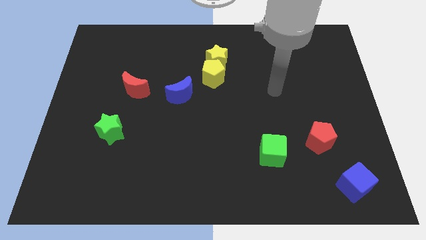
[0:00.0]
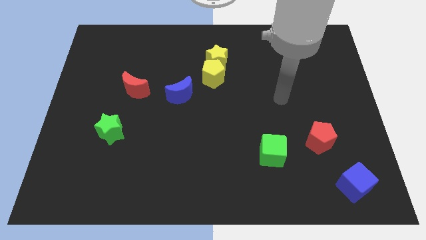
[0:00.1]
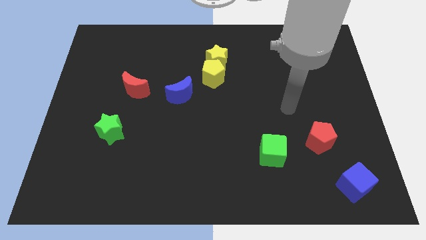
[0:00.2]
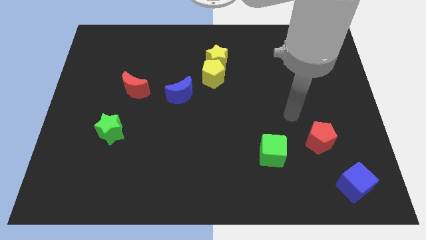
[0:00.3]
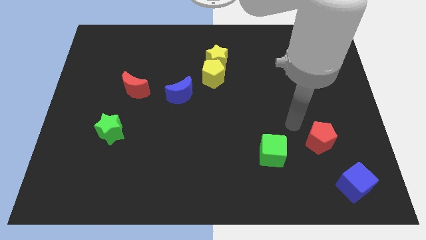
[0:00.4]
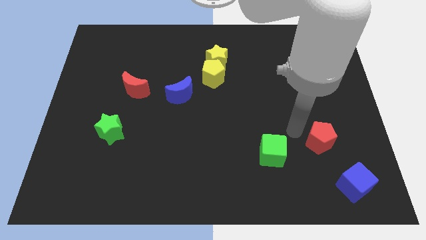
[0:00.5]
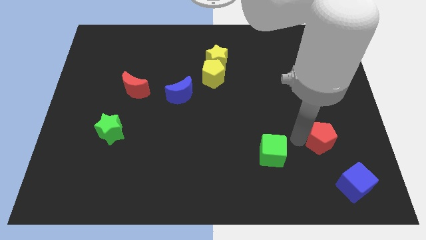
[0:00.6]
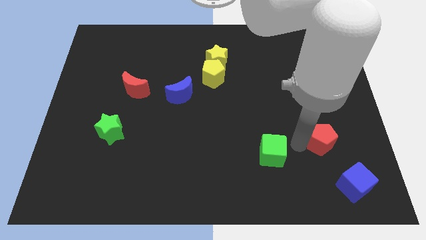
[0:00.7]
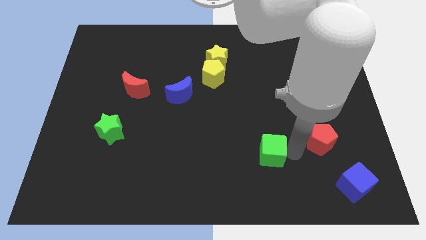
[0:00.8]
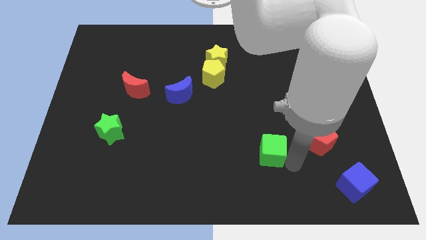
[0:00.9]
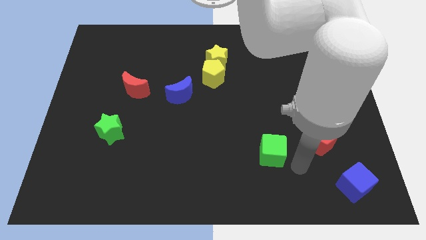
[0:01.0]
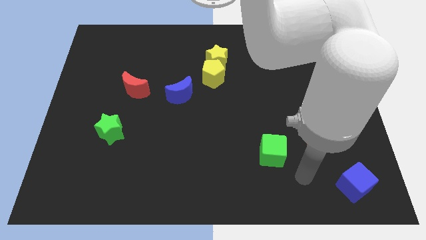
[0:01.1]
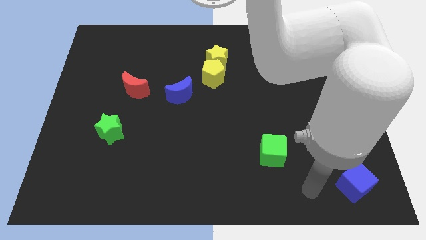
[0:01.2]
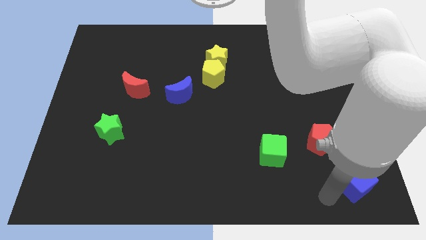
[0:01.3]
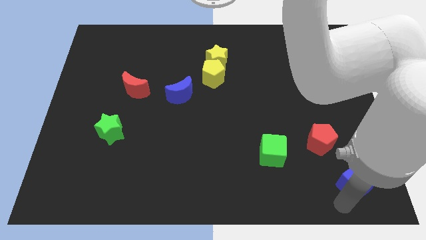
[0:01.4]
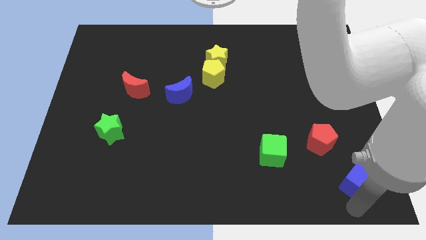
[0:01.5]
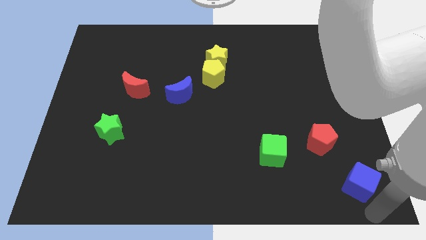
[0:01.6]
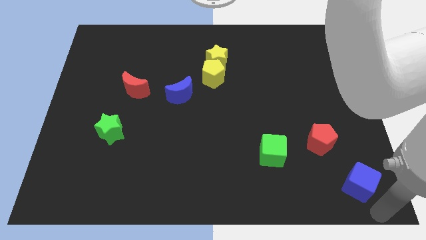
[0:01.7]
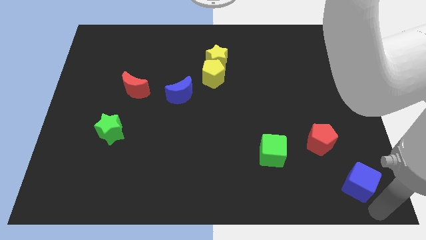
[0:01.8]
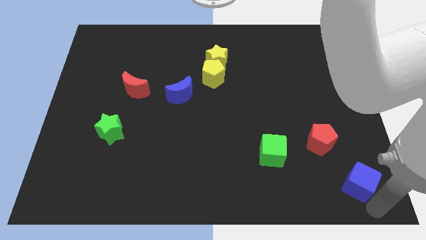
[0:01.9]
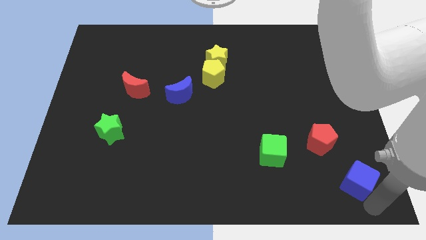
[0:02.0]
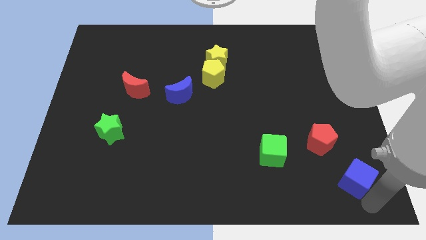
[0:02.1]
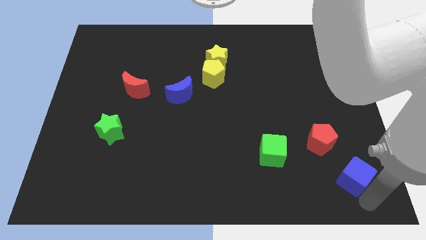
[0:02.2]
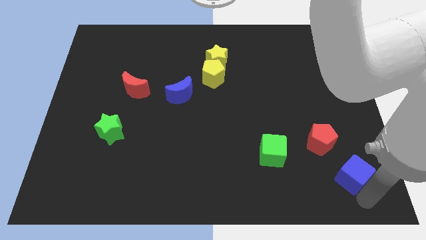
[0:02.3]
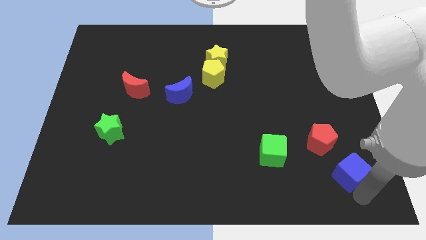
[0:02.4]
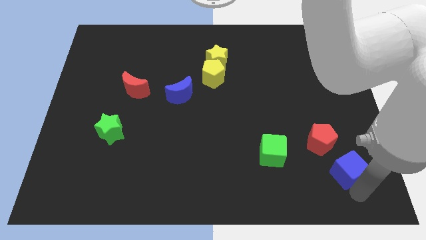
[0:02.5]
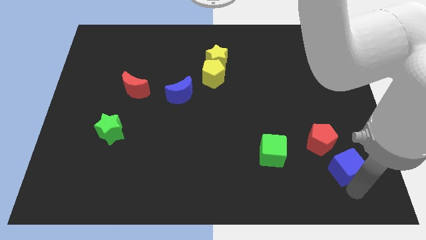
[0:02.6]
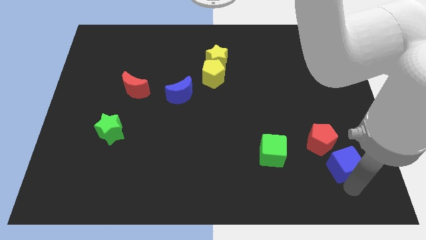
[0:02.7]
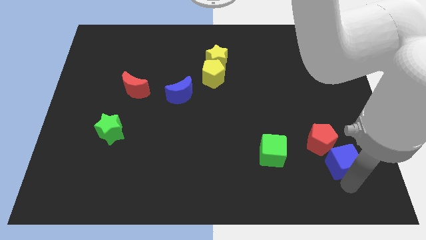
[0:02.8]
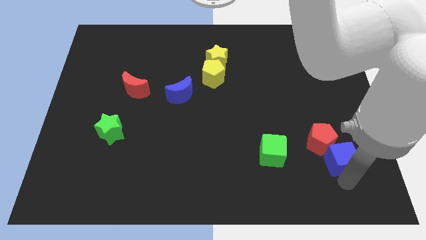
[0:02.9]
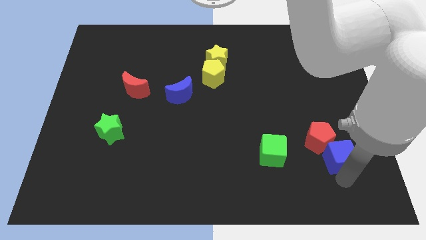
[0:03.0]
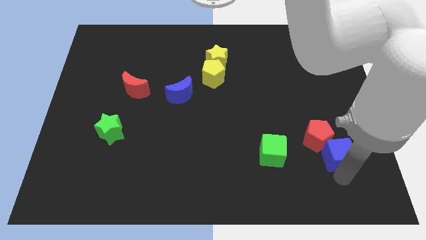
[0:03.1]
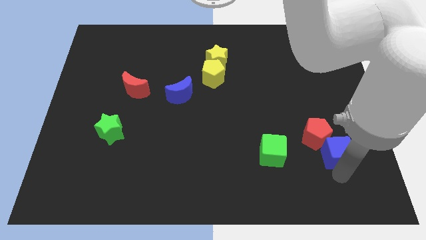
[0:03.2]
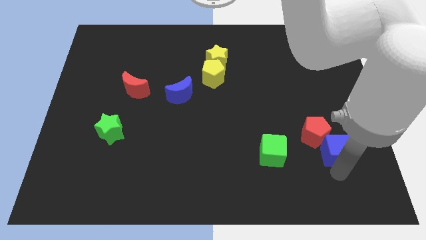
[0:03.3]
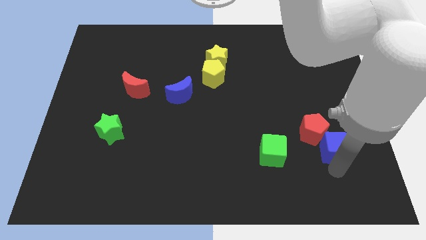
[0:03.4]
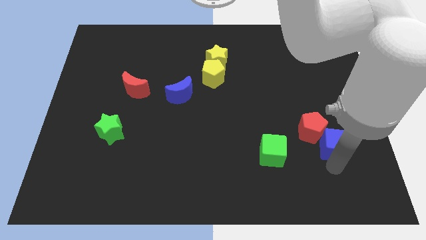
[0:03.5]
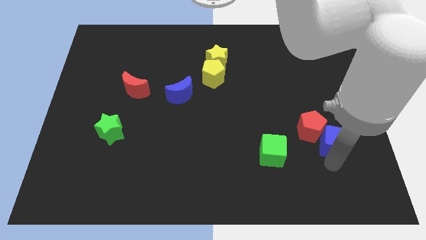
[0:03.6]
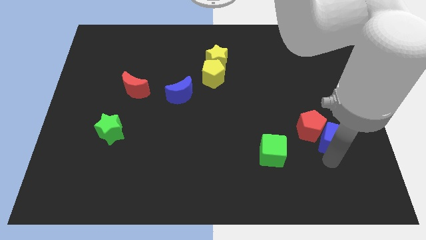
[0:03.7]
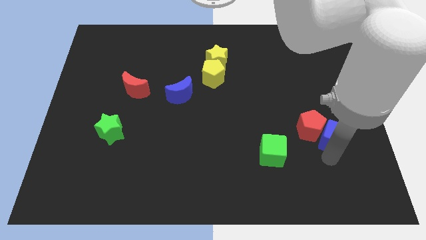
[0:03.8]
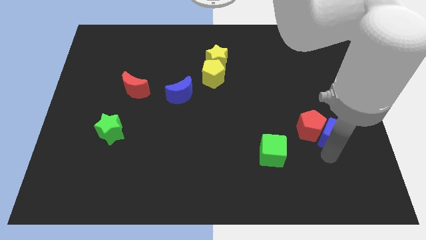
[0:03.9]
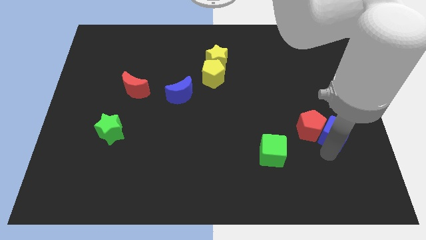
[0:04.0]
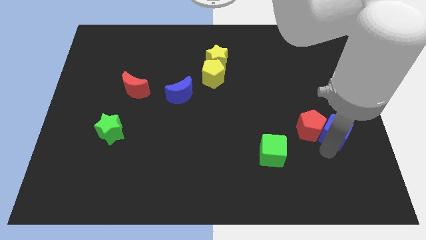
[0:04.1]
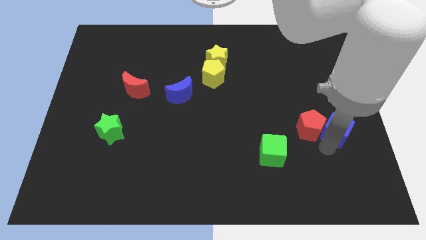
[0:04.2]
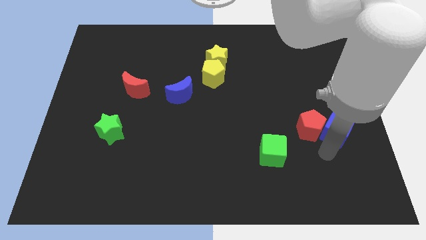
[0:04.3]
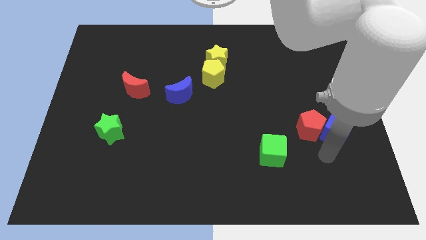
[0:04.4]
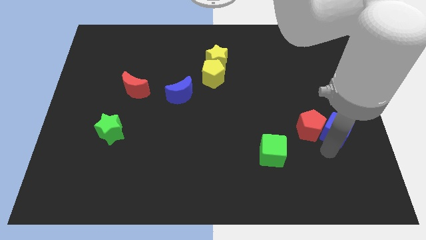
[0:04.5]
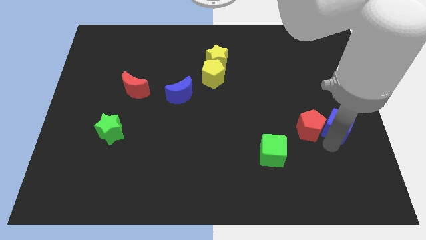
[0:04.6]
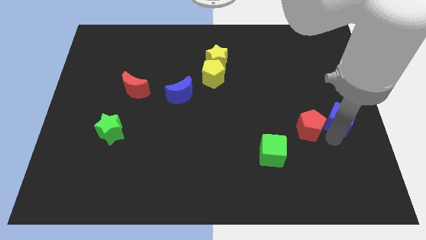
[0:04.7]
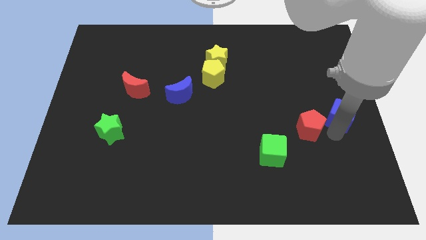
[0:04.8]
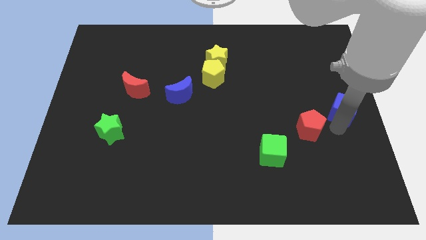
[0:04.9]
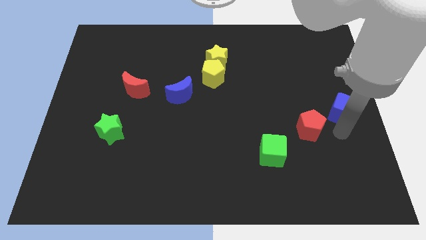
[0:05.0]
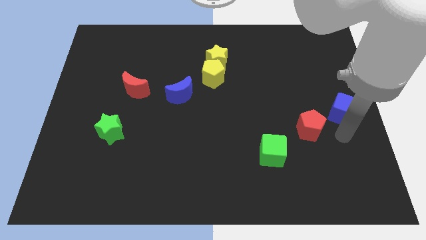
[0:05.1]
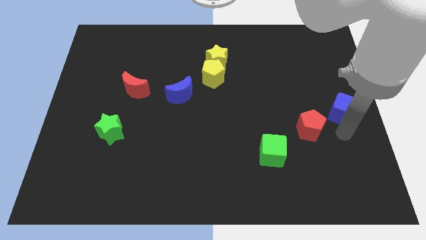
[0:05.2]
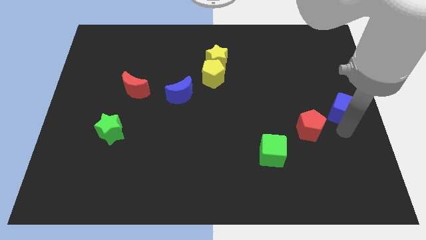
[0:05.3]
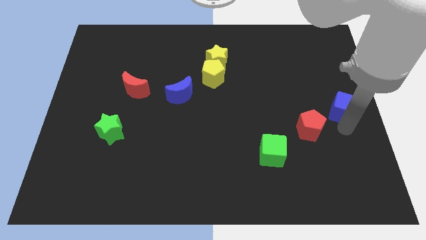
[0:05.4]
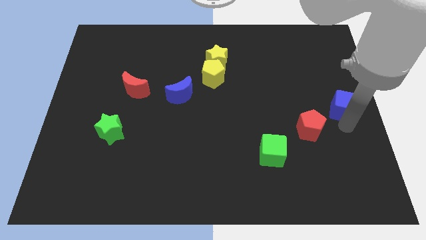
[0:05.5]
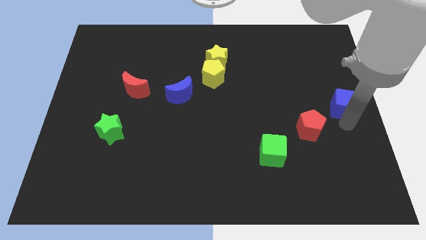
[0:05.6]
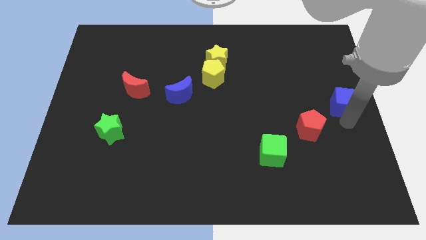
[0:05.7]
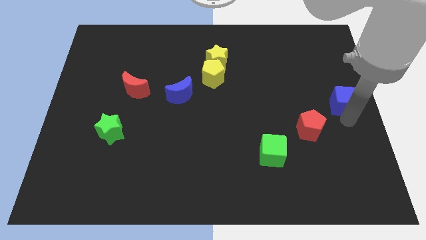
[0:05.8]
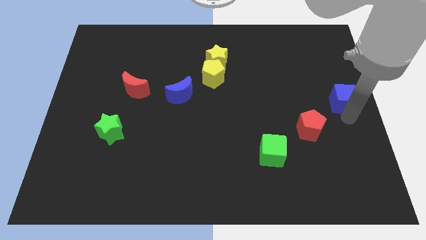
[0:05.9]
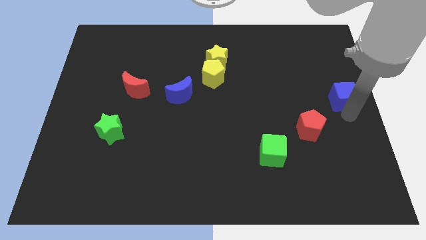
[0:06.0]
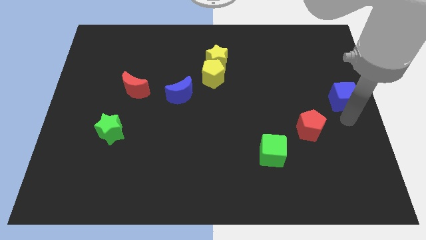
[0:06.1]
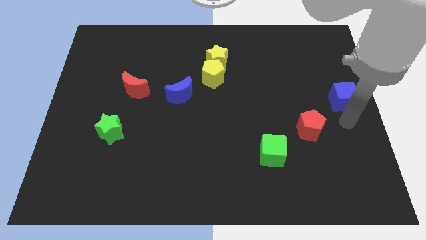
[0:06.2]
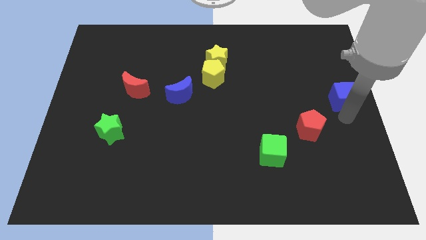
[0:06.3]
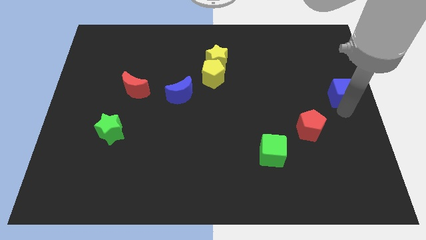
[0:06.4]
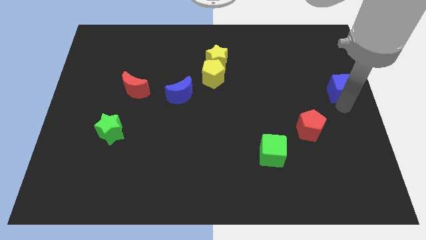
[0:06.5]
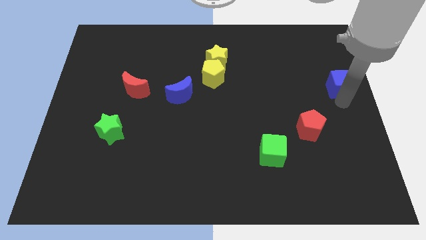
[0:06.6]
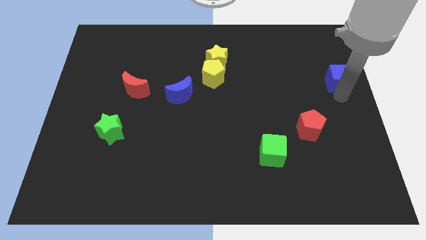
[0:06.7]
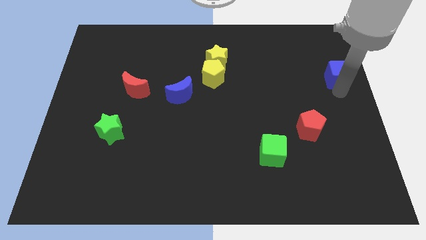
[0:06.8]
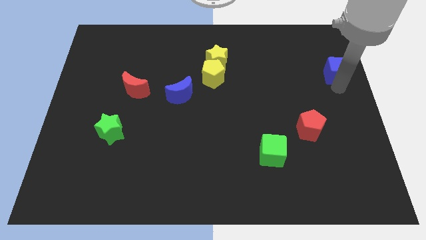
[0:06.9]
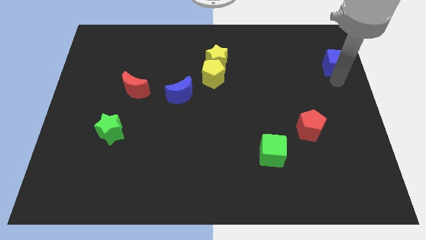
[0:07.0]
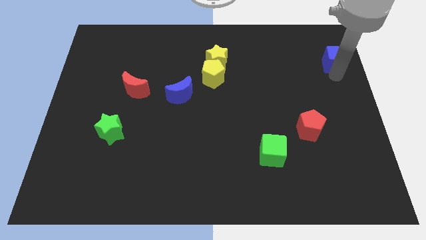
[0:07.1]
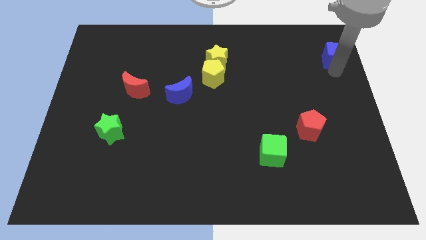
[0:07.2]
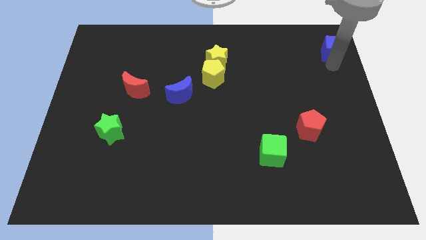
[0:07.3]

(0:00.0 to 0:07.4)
slide the blue cube to the upper right corner
